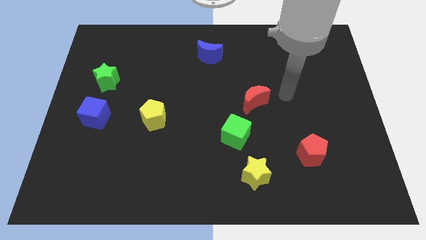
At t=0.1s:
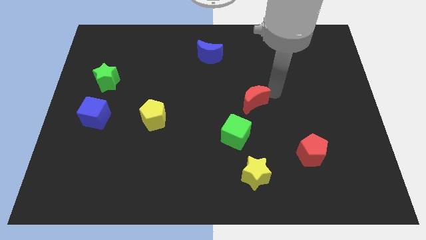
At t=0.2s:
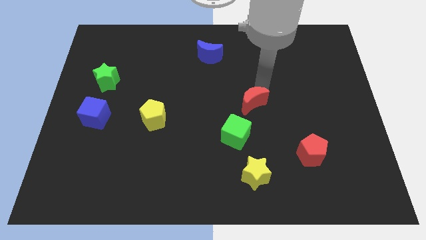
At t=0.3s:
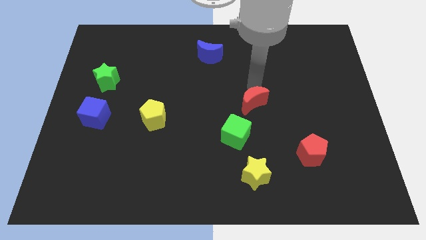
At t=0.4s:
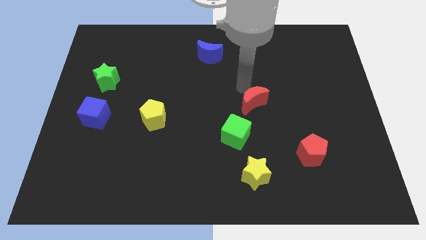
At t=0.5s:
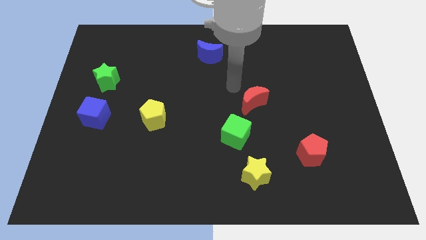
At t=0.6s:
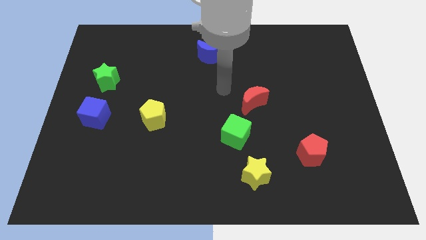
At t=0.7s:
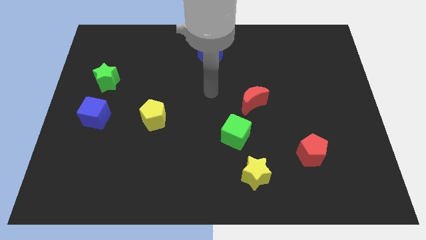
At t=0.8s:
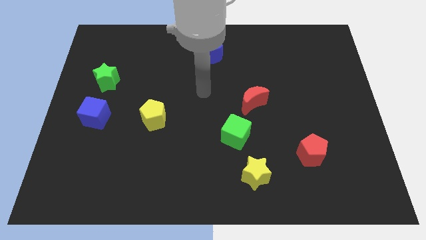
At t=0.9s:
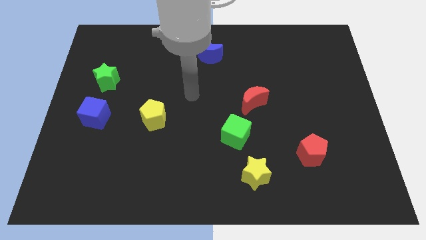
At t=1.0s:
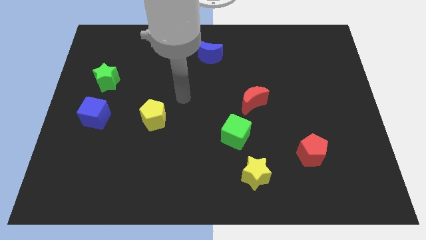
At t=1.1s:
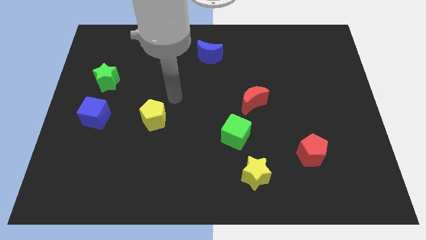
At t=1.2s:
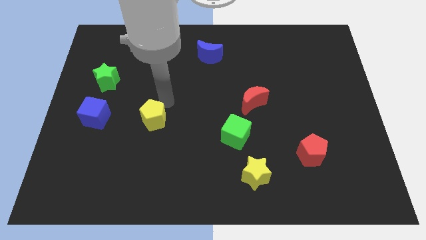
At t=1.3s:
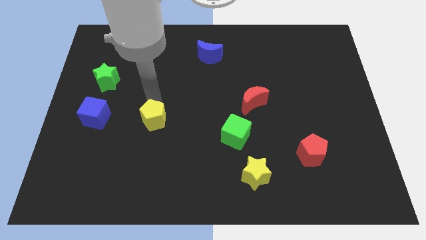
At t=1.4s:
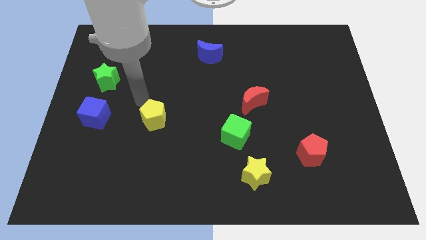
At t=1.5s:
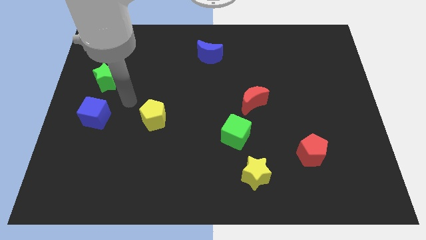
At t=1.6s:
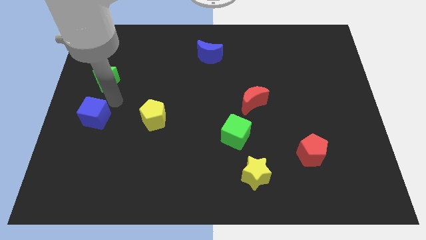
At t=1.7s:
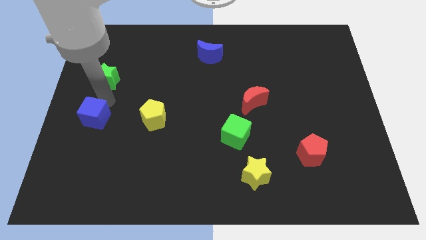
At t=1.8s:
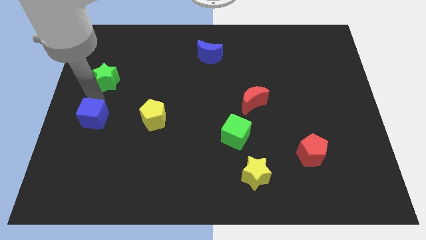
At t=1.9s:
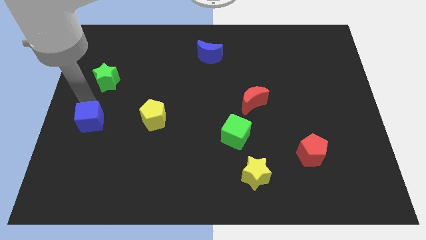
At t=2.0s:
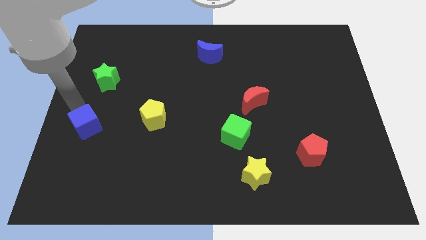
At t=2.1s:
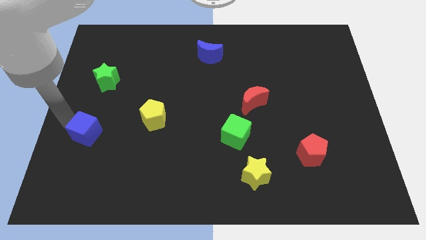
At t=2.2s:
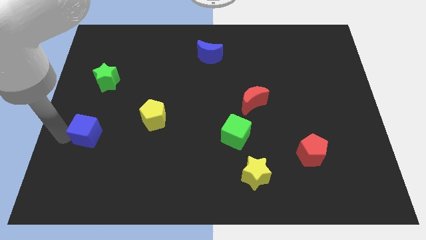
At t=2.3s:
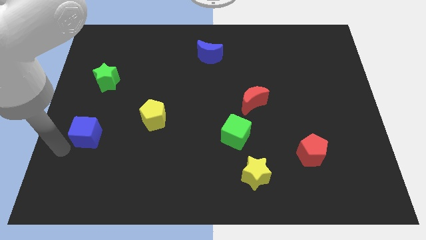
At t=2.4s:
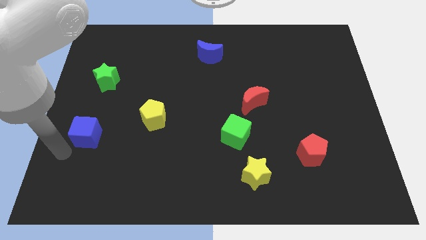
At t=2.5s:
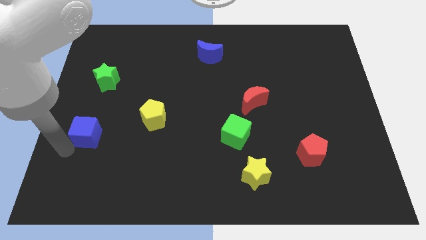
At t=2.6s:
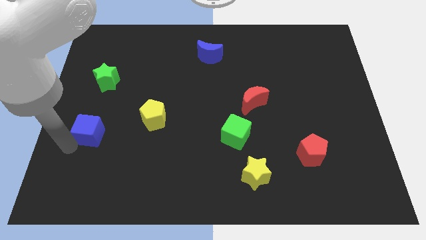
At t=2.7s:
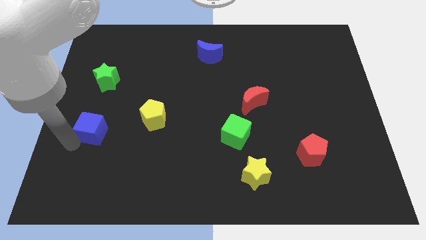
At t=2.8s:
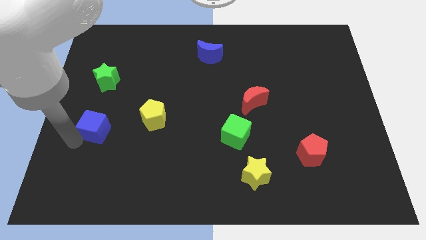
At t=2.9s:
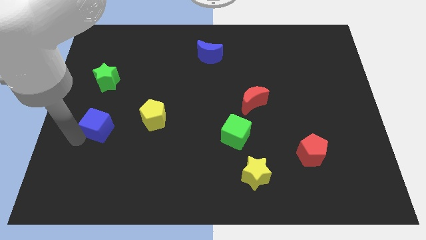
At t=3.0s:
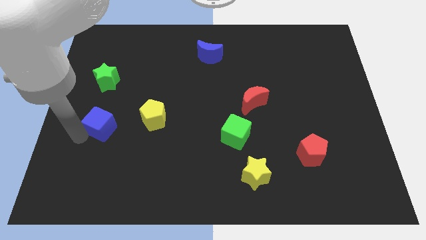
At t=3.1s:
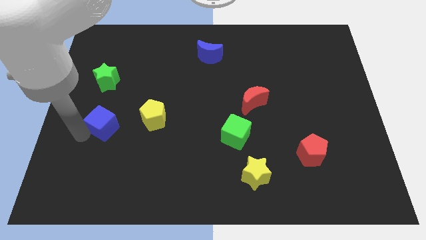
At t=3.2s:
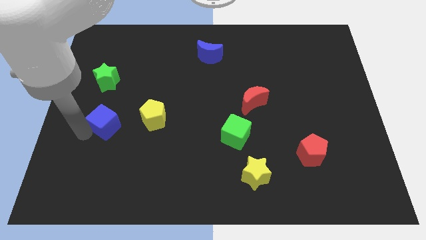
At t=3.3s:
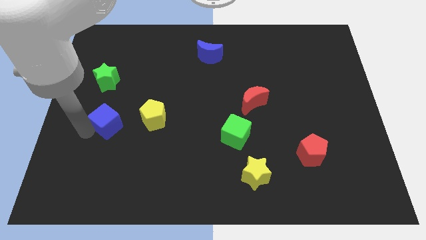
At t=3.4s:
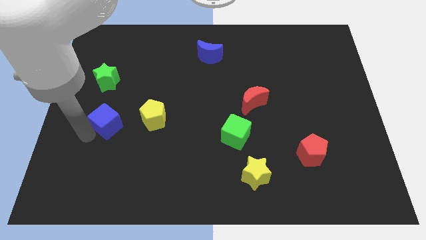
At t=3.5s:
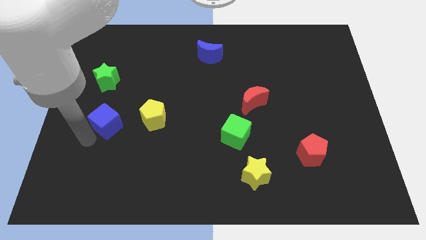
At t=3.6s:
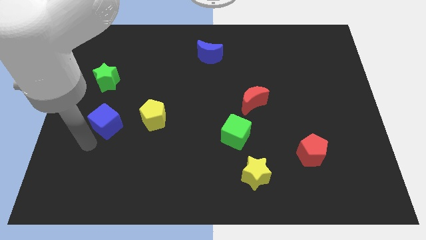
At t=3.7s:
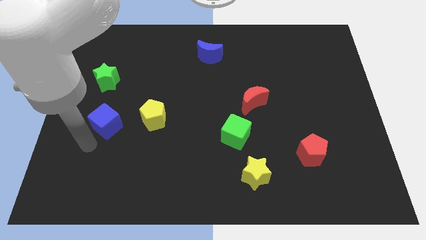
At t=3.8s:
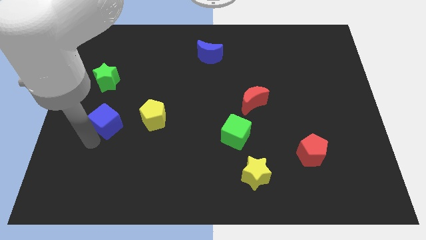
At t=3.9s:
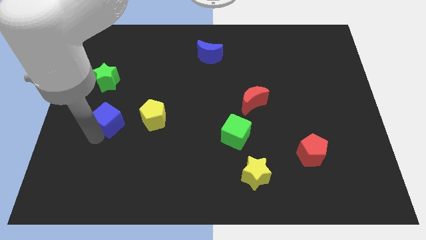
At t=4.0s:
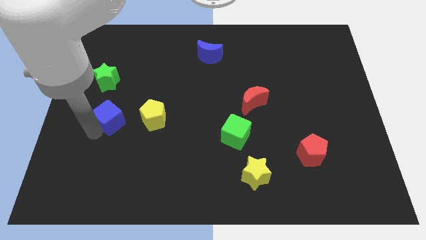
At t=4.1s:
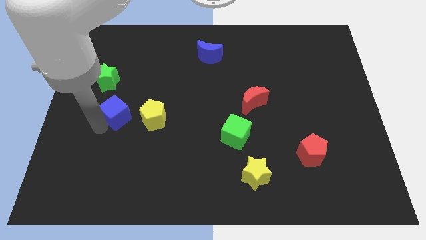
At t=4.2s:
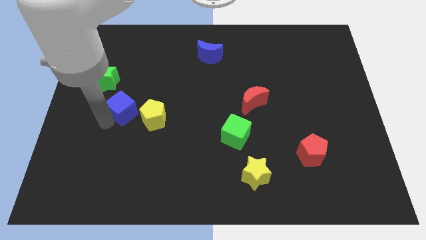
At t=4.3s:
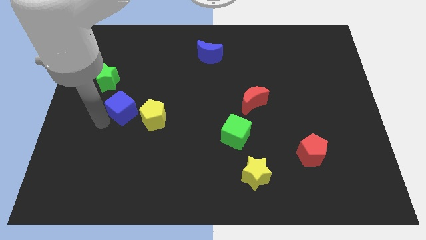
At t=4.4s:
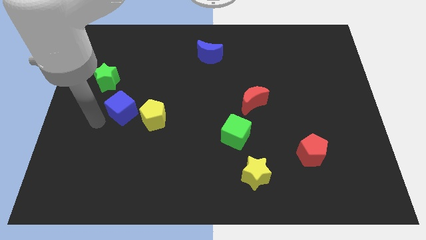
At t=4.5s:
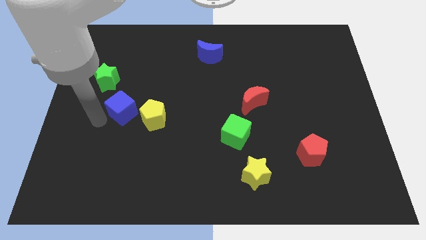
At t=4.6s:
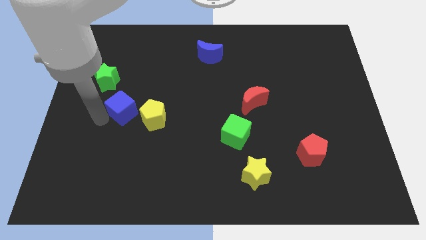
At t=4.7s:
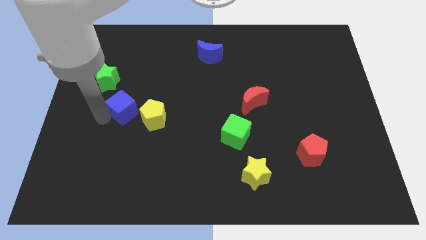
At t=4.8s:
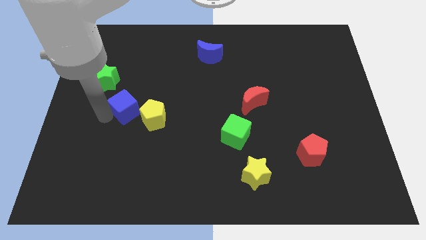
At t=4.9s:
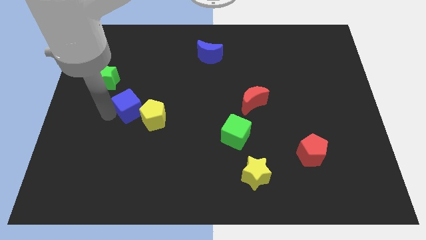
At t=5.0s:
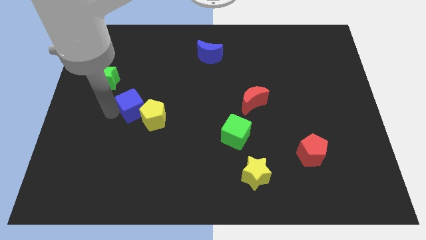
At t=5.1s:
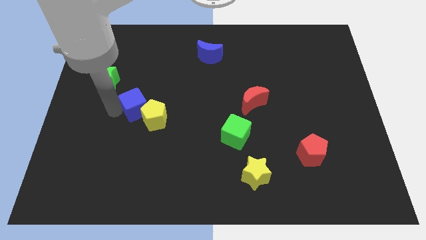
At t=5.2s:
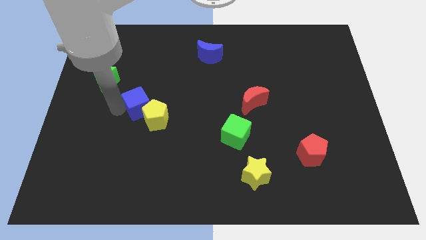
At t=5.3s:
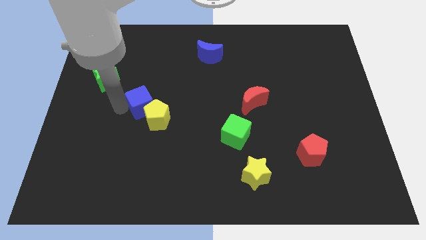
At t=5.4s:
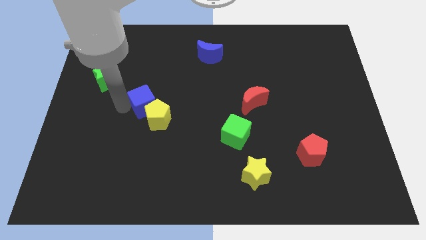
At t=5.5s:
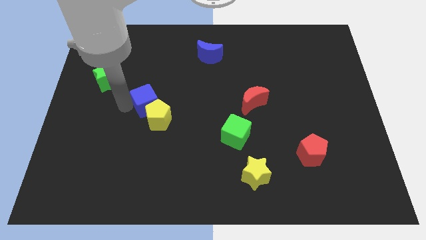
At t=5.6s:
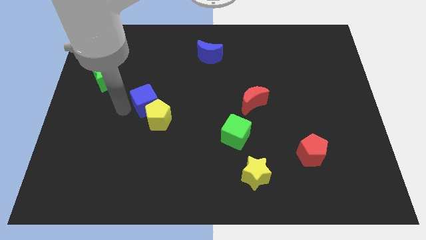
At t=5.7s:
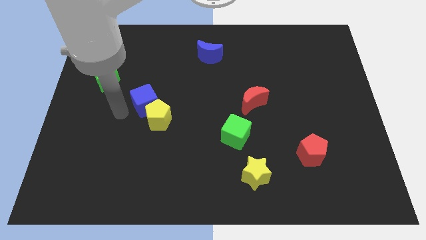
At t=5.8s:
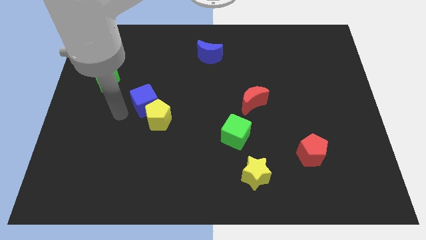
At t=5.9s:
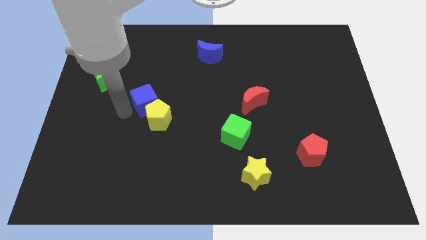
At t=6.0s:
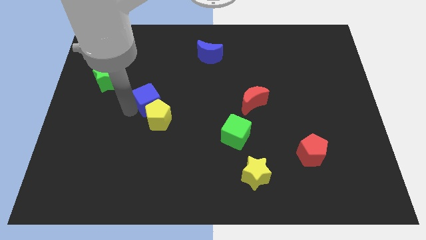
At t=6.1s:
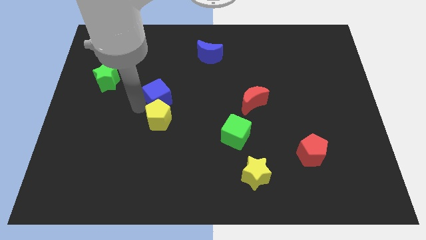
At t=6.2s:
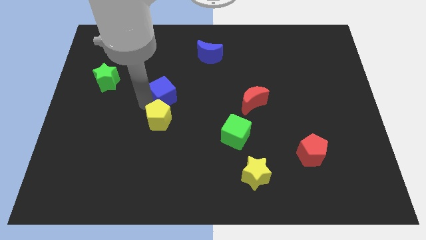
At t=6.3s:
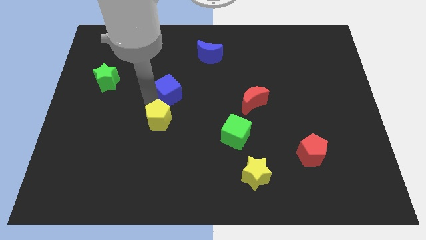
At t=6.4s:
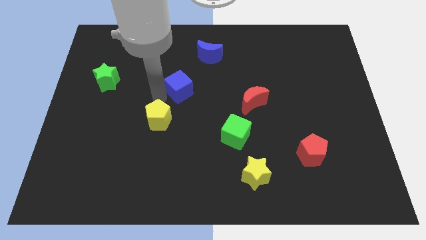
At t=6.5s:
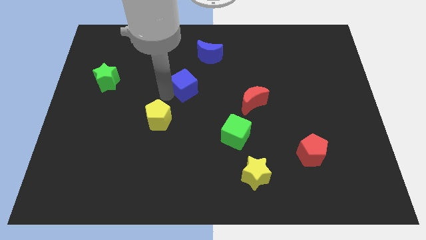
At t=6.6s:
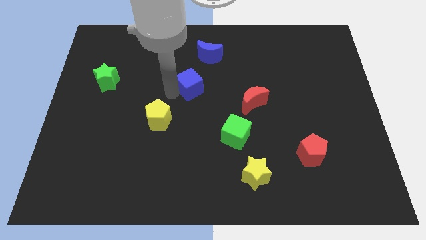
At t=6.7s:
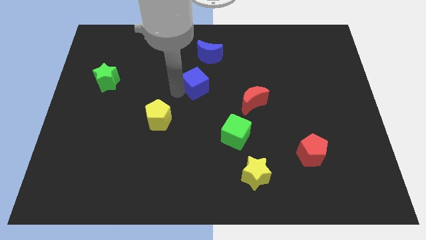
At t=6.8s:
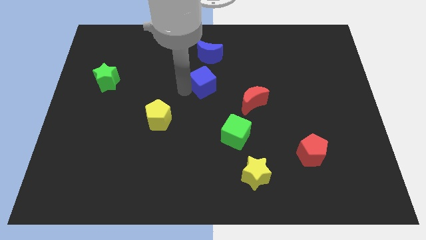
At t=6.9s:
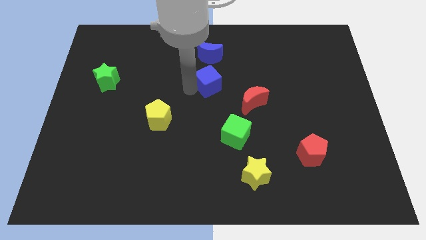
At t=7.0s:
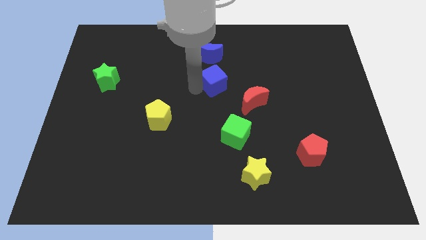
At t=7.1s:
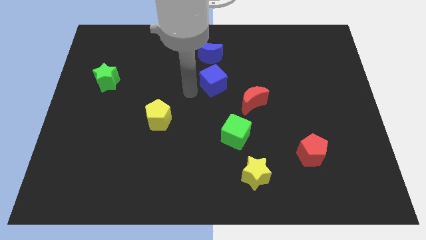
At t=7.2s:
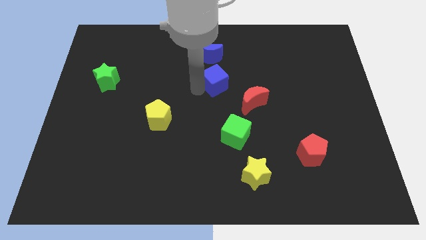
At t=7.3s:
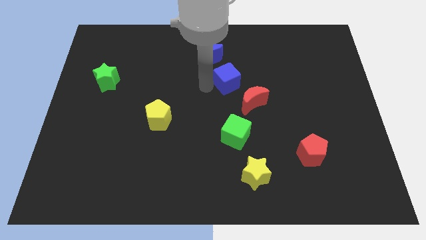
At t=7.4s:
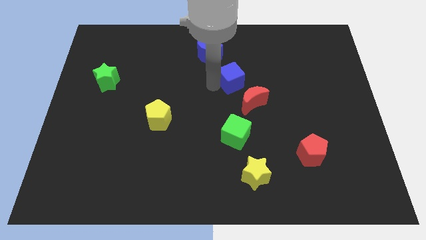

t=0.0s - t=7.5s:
push the blue cube to the top of the red moon

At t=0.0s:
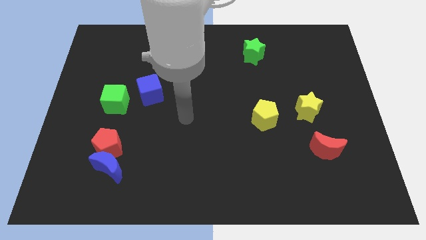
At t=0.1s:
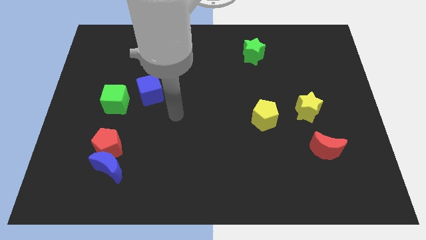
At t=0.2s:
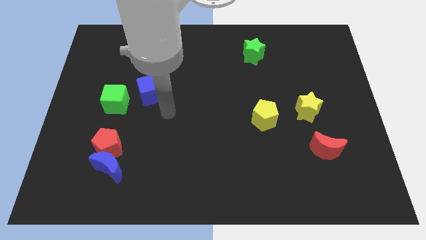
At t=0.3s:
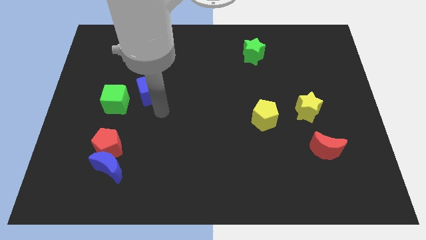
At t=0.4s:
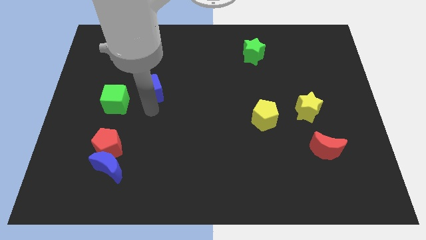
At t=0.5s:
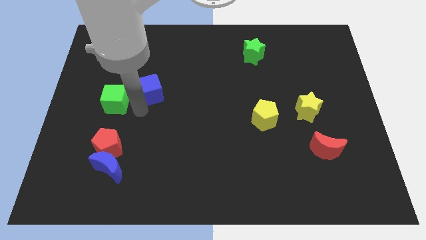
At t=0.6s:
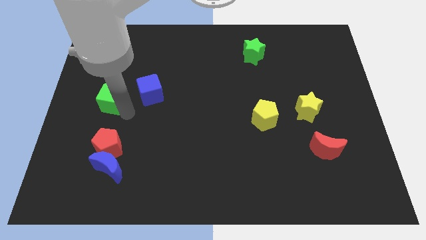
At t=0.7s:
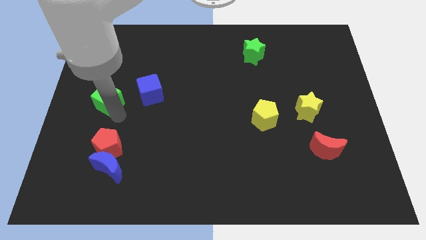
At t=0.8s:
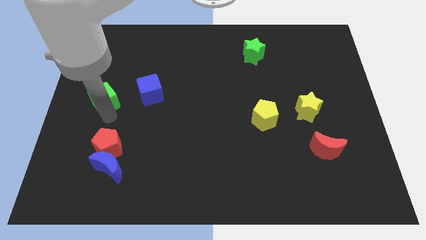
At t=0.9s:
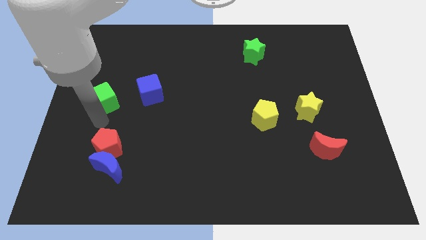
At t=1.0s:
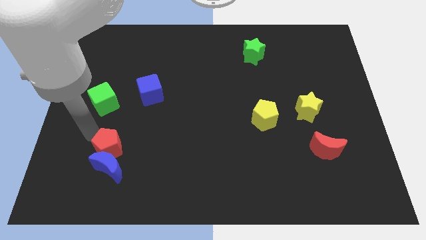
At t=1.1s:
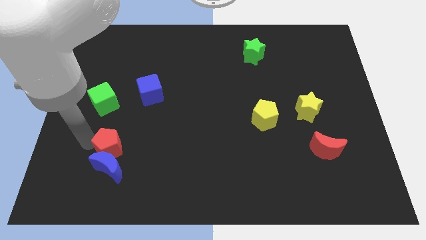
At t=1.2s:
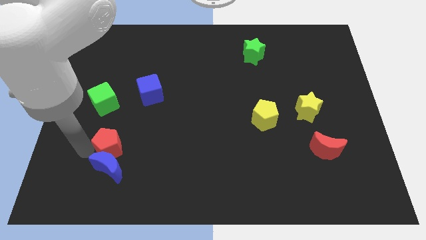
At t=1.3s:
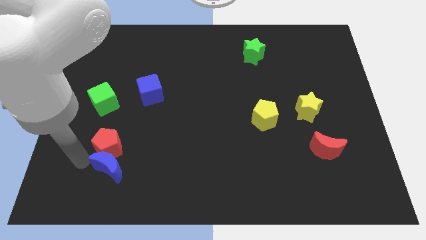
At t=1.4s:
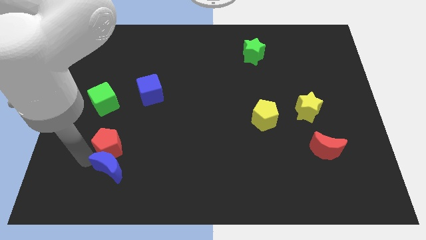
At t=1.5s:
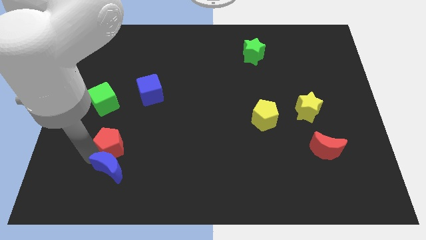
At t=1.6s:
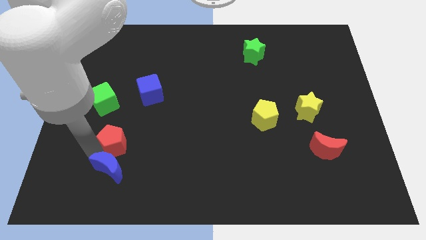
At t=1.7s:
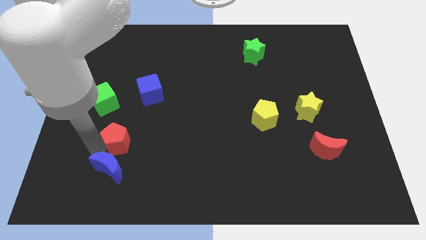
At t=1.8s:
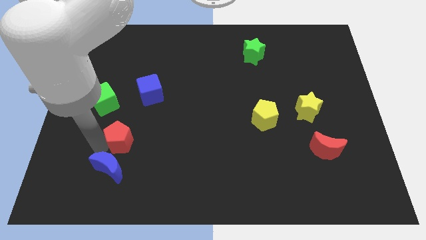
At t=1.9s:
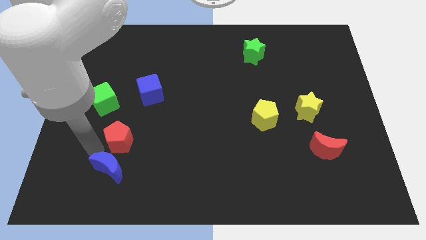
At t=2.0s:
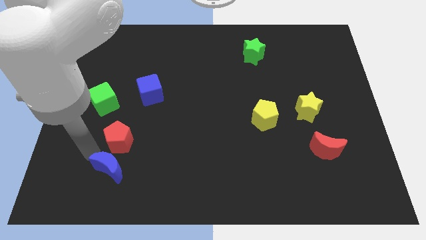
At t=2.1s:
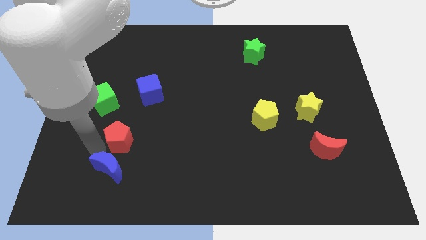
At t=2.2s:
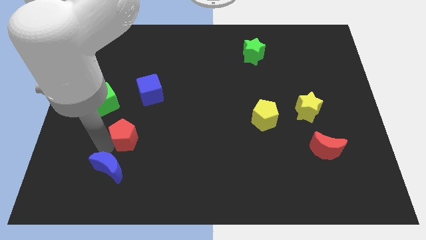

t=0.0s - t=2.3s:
push the red pentagon below the blue cube
